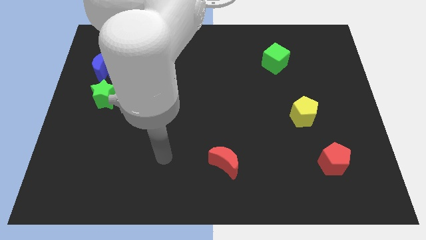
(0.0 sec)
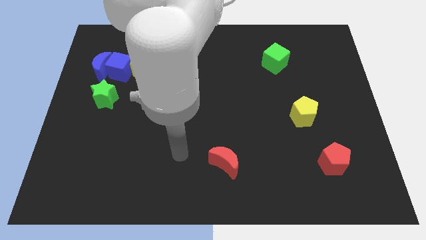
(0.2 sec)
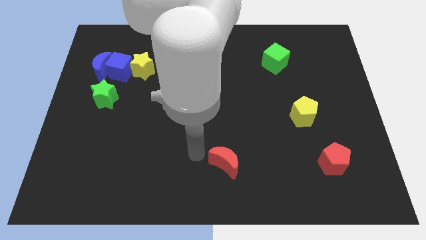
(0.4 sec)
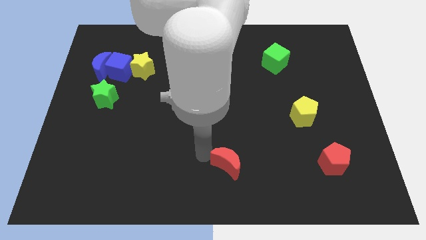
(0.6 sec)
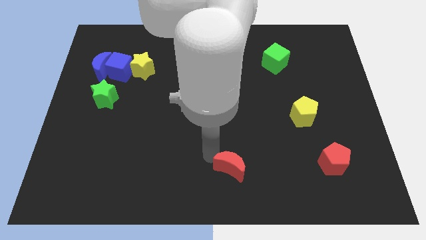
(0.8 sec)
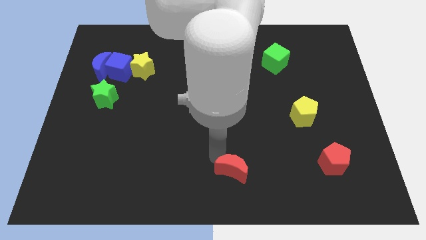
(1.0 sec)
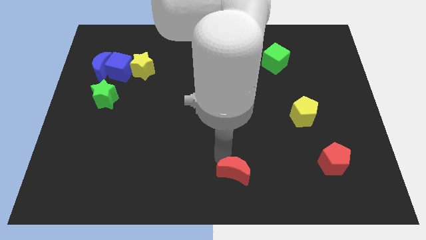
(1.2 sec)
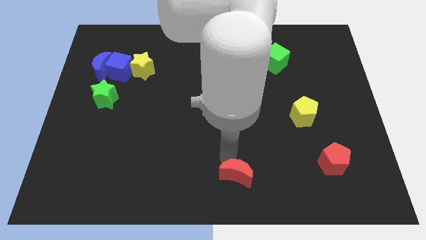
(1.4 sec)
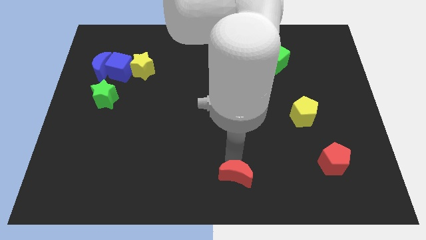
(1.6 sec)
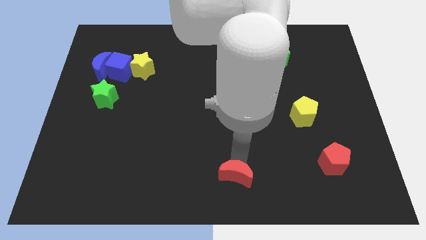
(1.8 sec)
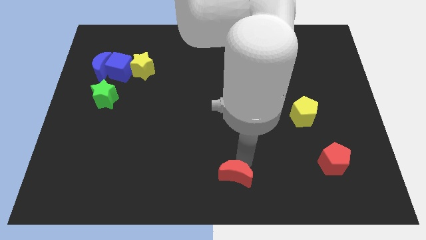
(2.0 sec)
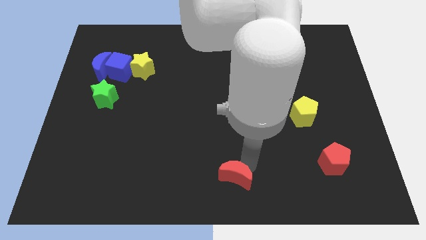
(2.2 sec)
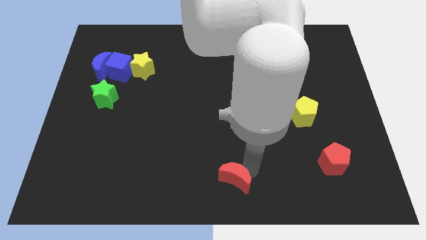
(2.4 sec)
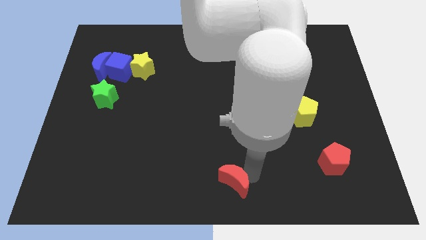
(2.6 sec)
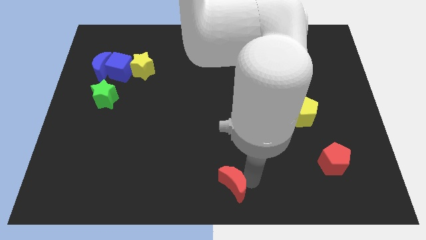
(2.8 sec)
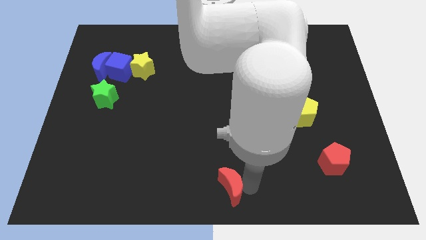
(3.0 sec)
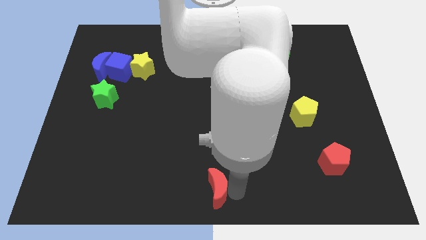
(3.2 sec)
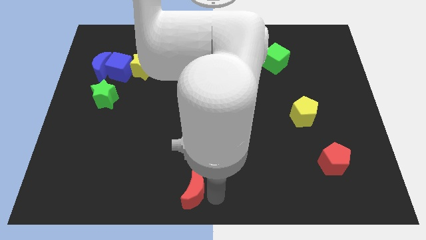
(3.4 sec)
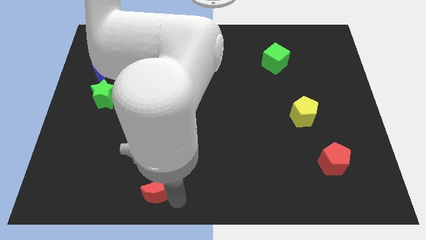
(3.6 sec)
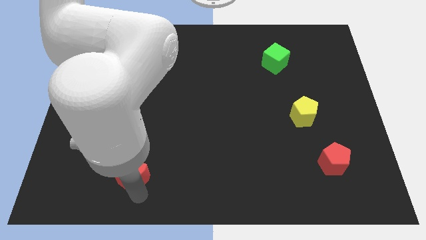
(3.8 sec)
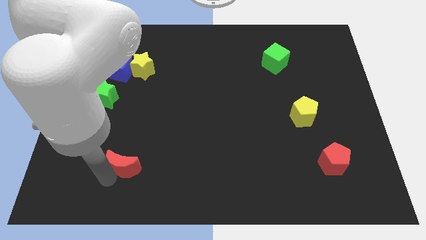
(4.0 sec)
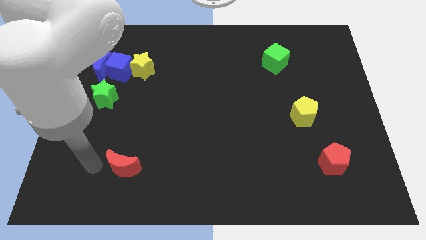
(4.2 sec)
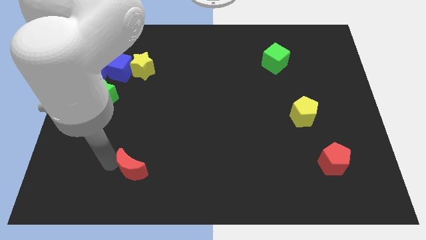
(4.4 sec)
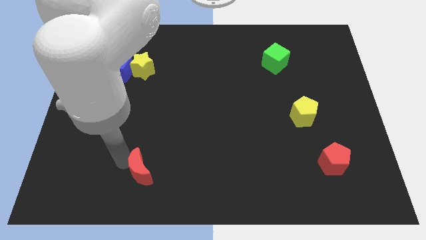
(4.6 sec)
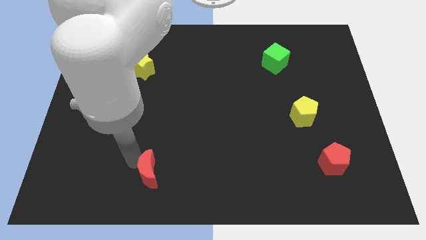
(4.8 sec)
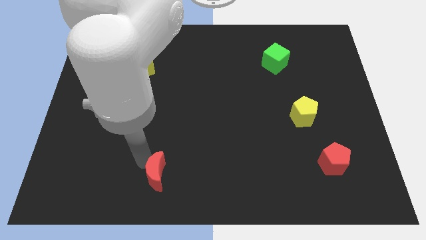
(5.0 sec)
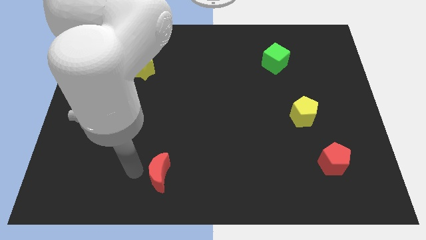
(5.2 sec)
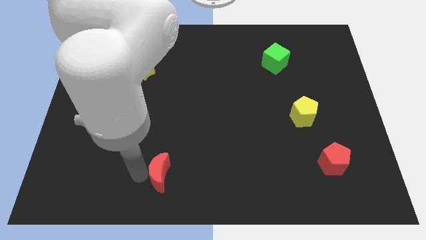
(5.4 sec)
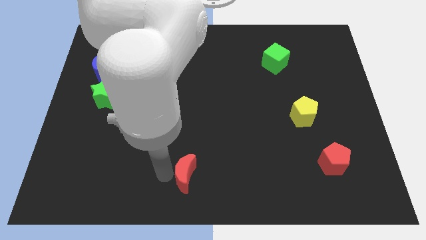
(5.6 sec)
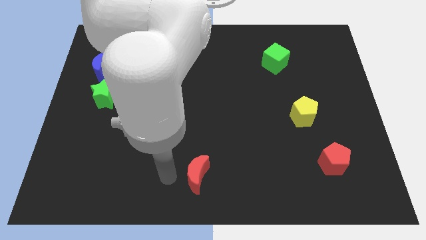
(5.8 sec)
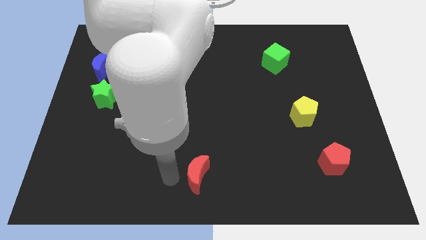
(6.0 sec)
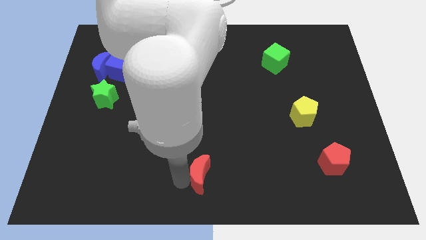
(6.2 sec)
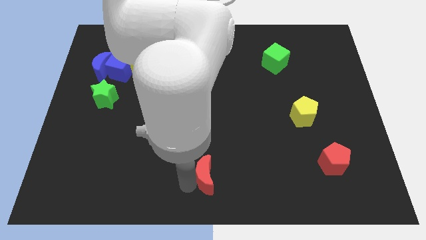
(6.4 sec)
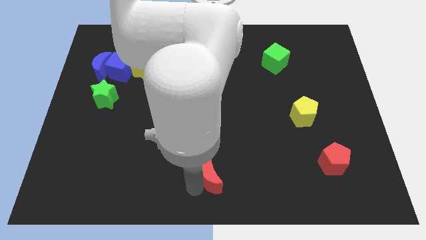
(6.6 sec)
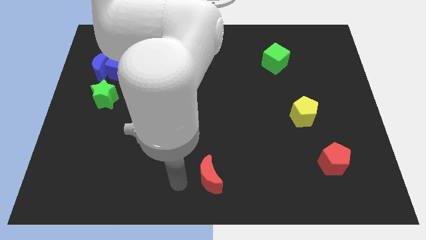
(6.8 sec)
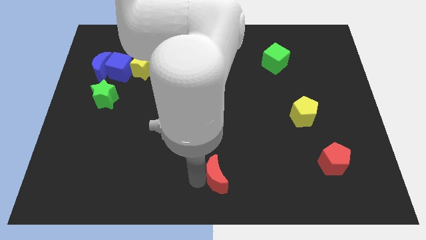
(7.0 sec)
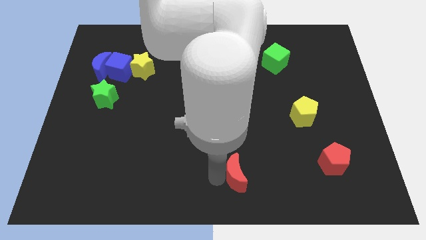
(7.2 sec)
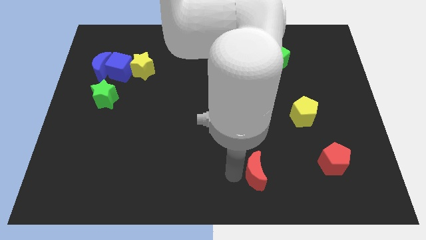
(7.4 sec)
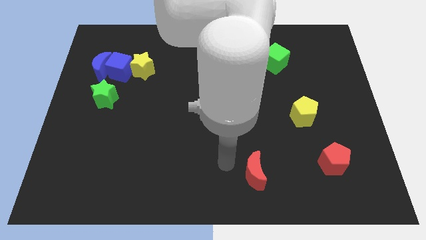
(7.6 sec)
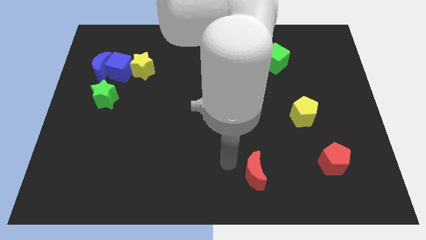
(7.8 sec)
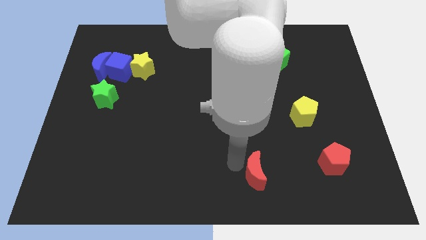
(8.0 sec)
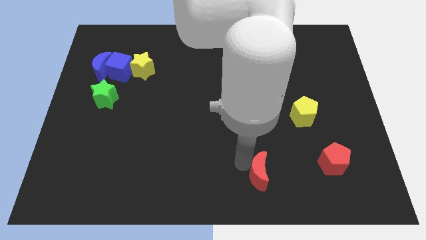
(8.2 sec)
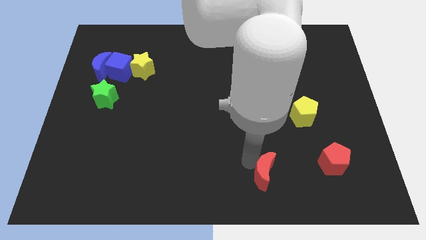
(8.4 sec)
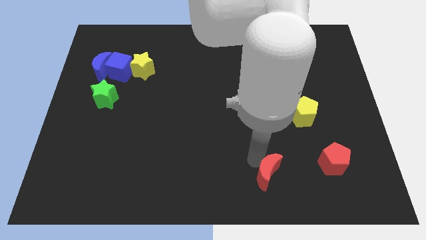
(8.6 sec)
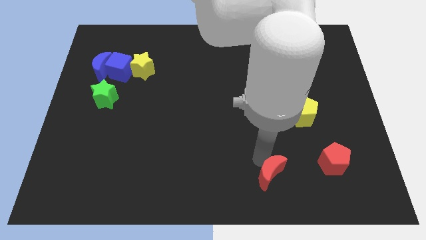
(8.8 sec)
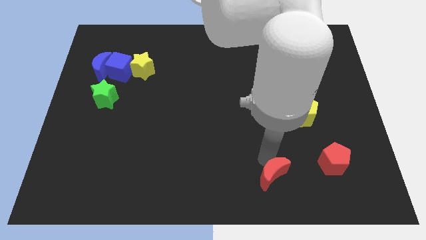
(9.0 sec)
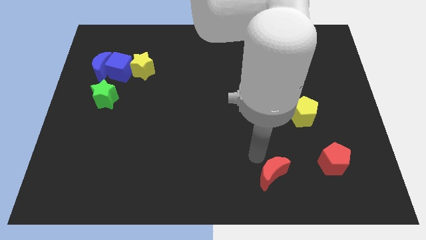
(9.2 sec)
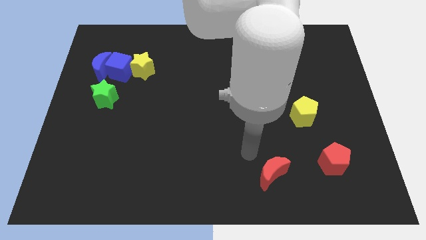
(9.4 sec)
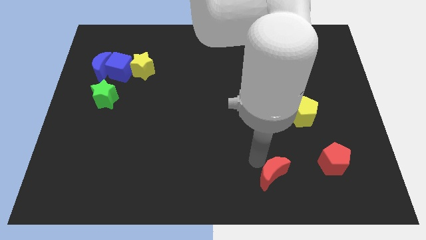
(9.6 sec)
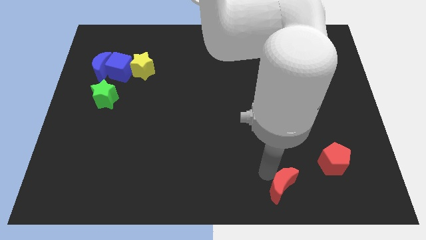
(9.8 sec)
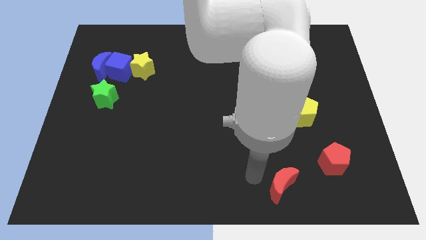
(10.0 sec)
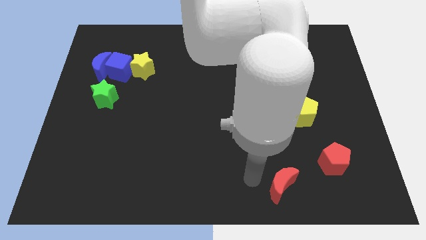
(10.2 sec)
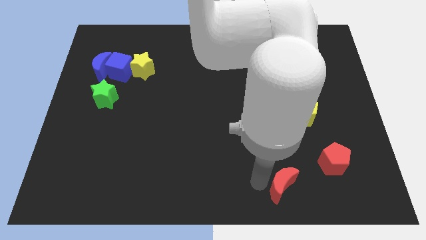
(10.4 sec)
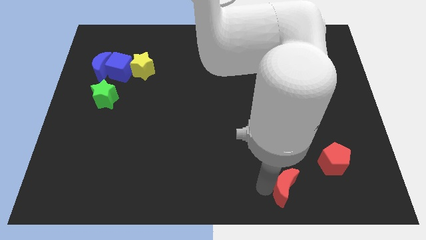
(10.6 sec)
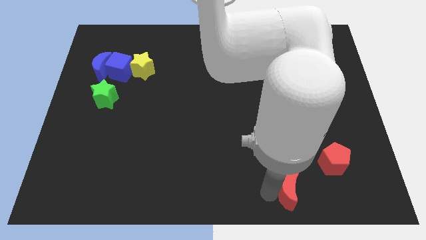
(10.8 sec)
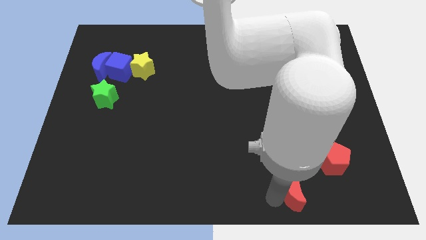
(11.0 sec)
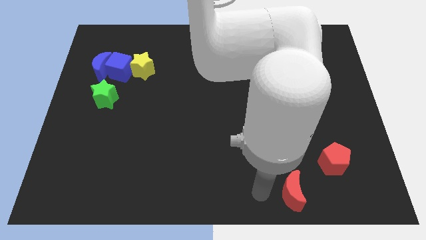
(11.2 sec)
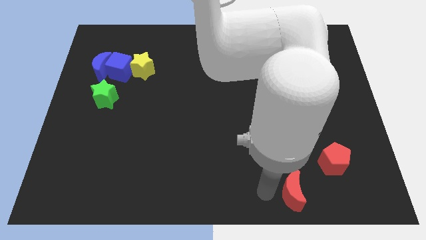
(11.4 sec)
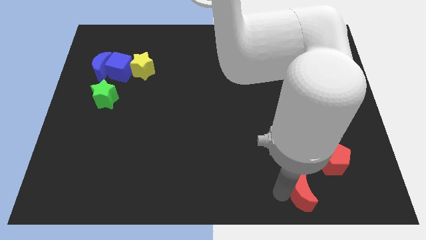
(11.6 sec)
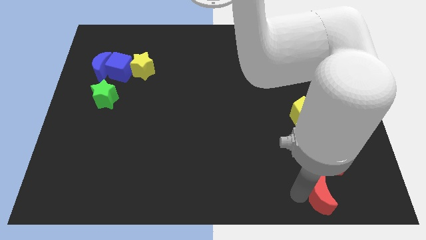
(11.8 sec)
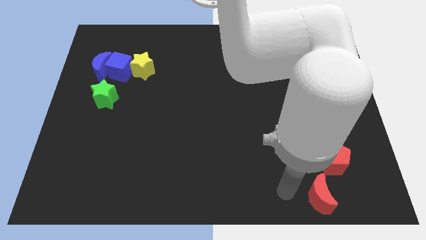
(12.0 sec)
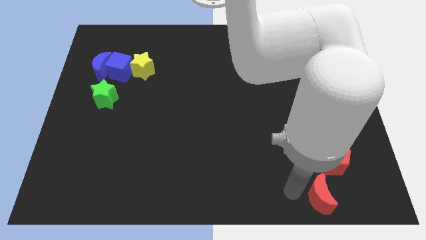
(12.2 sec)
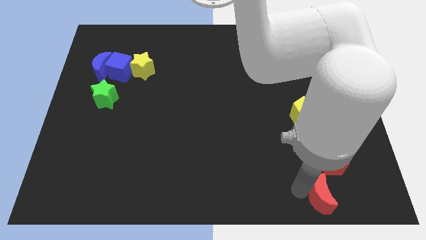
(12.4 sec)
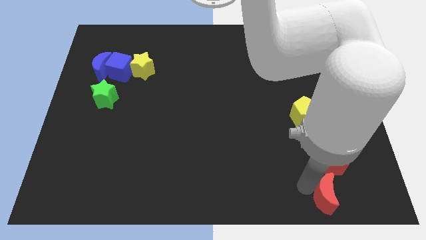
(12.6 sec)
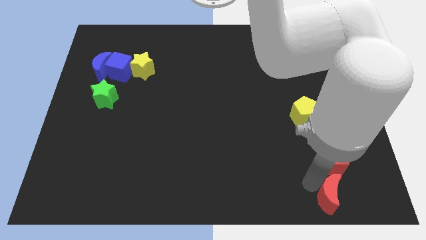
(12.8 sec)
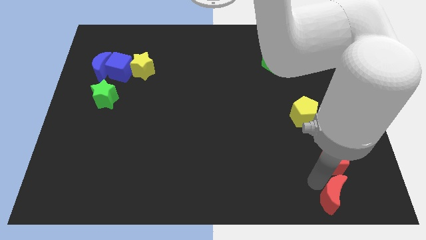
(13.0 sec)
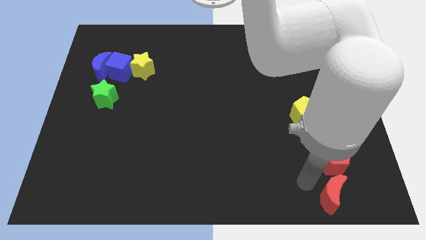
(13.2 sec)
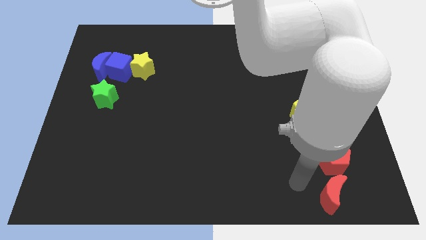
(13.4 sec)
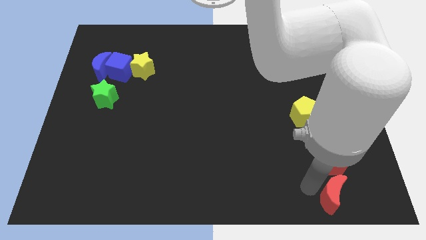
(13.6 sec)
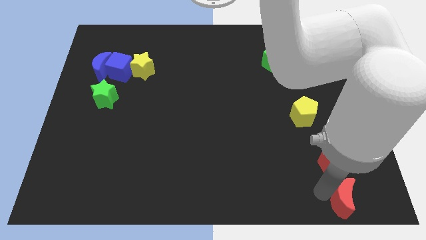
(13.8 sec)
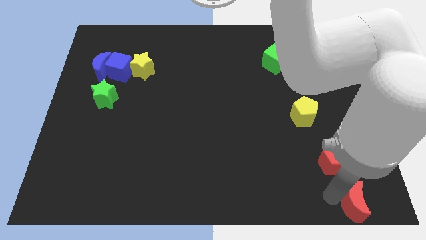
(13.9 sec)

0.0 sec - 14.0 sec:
put the red moon to the bottom right
